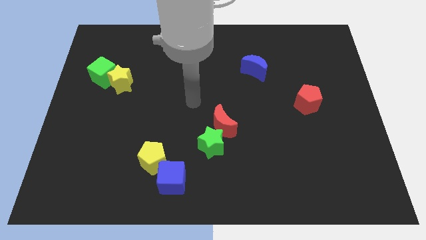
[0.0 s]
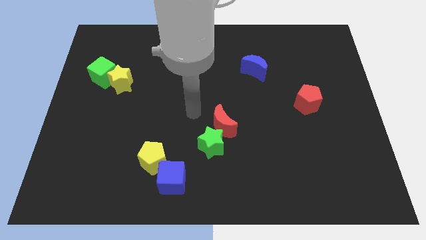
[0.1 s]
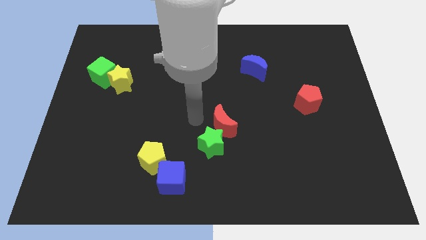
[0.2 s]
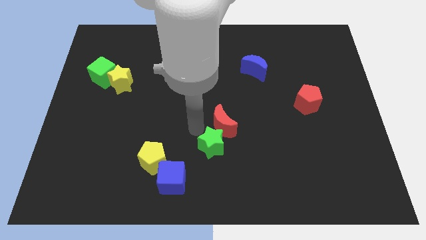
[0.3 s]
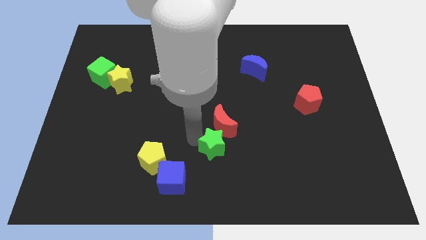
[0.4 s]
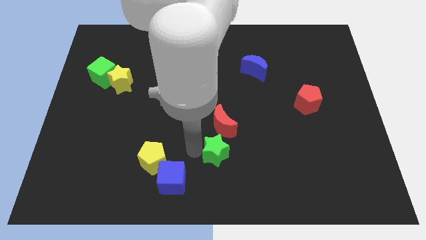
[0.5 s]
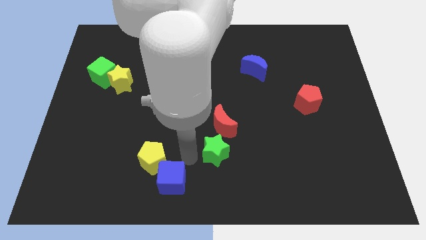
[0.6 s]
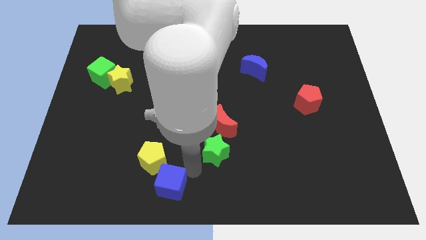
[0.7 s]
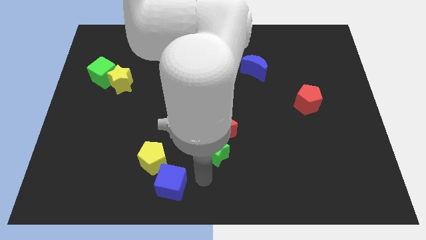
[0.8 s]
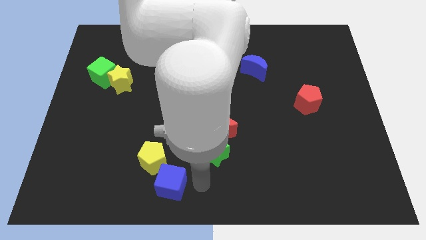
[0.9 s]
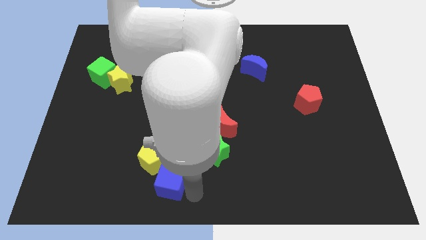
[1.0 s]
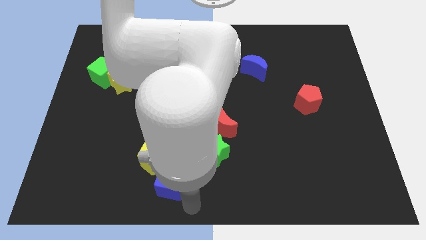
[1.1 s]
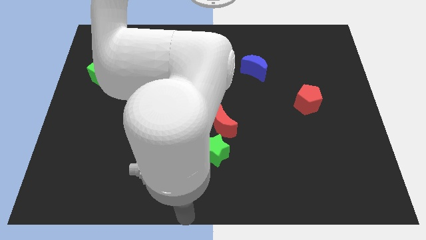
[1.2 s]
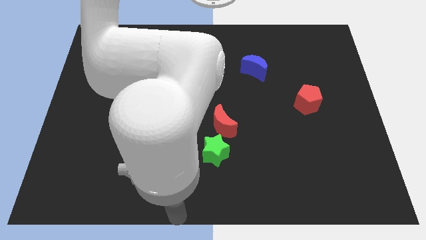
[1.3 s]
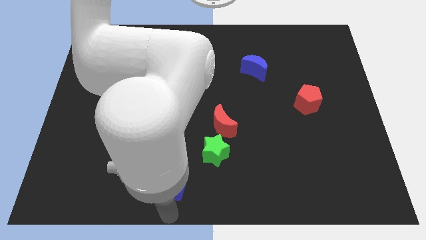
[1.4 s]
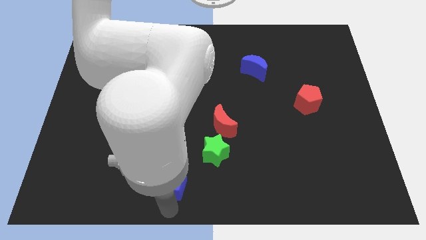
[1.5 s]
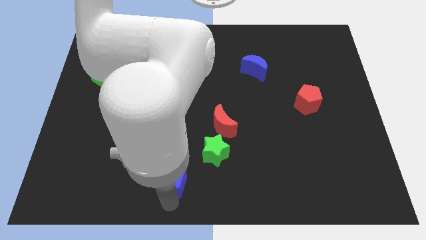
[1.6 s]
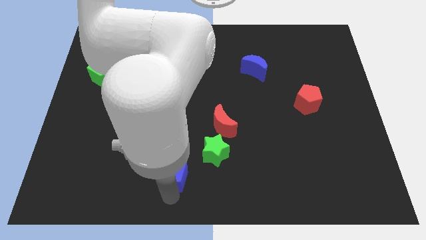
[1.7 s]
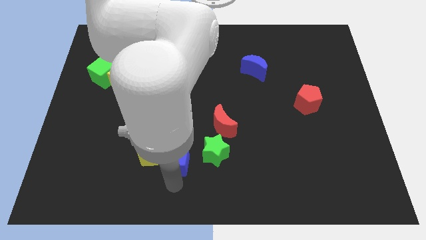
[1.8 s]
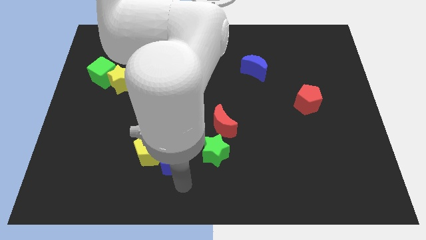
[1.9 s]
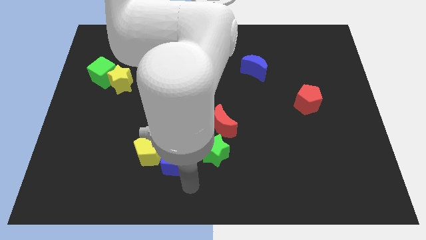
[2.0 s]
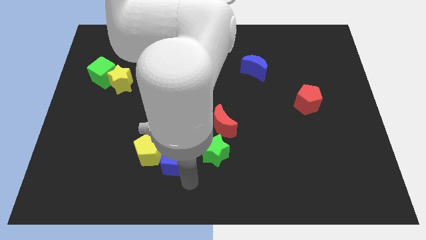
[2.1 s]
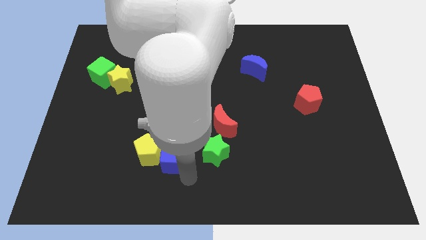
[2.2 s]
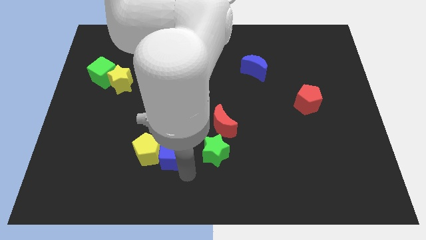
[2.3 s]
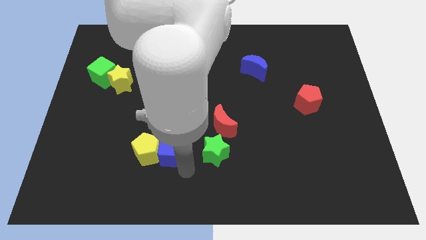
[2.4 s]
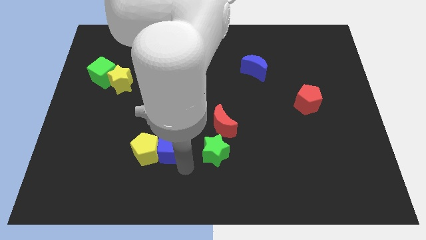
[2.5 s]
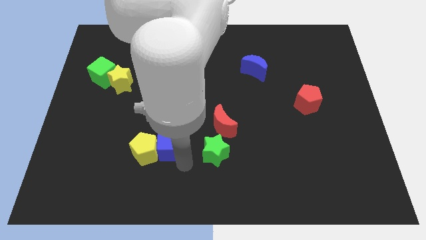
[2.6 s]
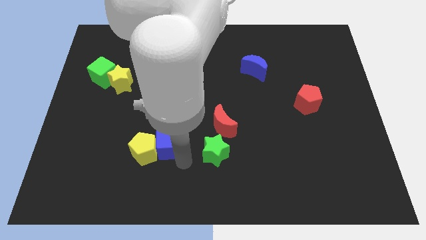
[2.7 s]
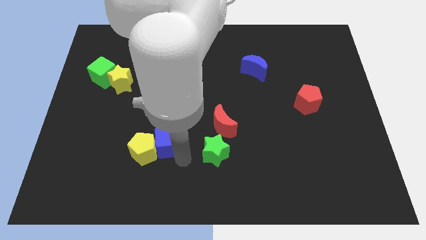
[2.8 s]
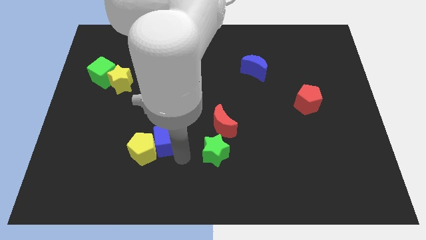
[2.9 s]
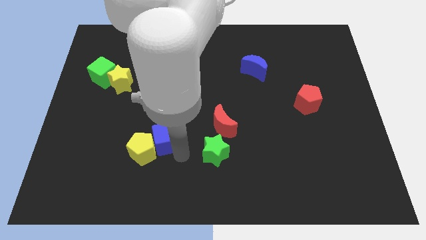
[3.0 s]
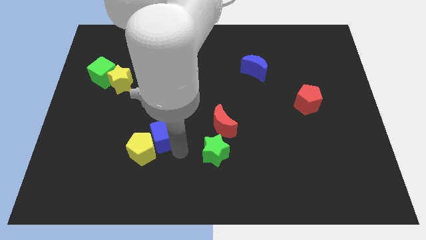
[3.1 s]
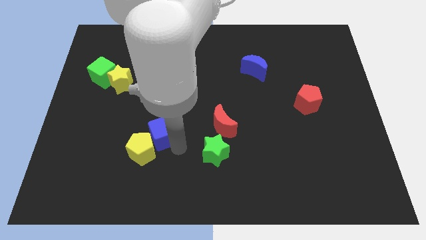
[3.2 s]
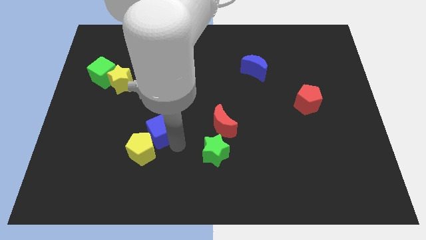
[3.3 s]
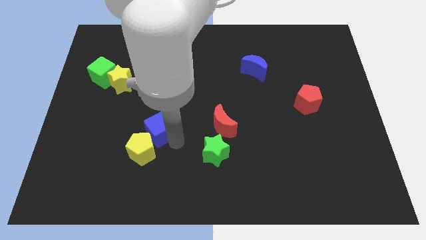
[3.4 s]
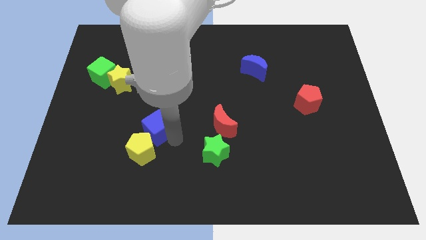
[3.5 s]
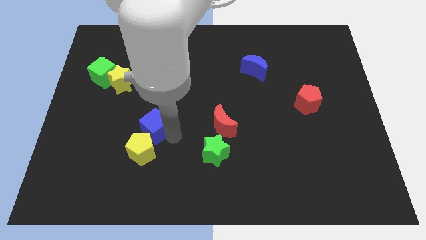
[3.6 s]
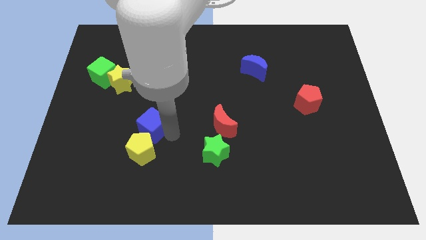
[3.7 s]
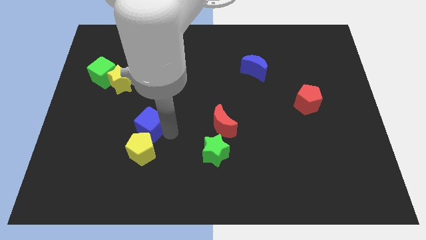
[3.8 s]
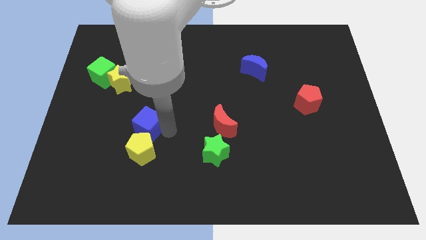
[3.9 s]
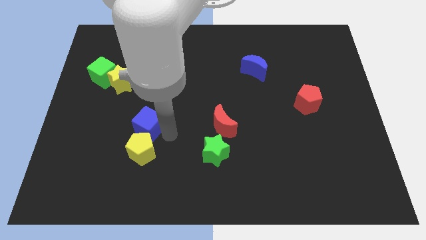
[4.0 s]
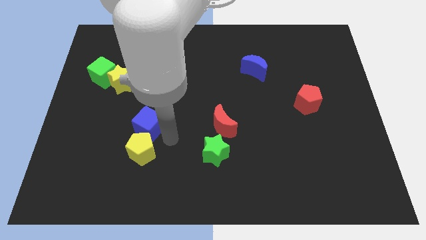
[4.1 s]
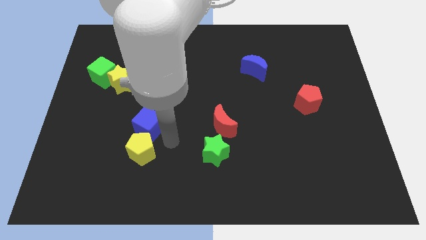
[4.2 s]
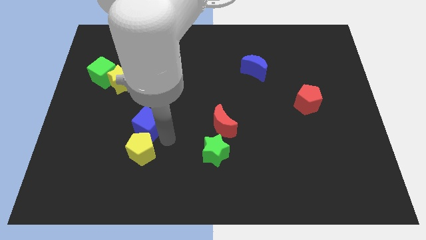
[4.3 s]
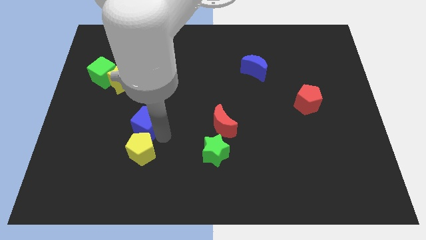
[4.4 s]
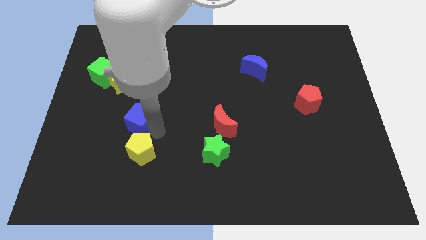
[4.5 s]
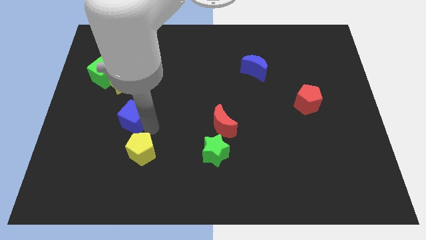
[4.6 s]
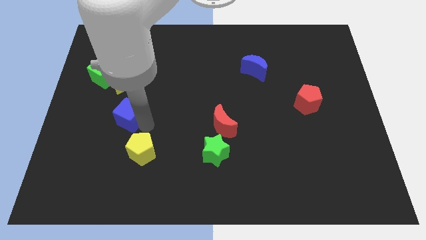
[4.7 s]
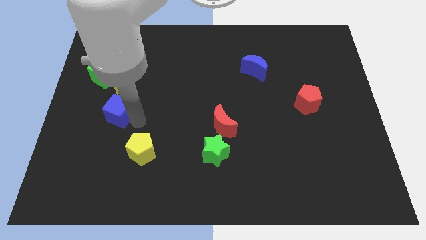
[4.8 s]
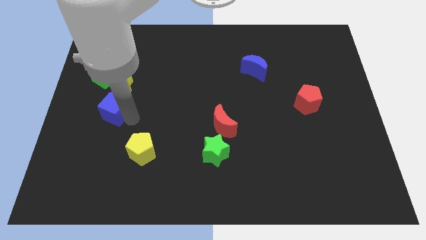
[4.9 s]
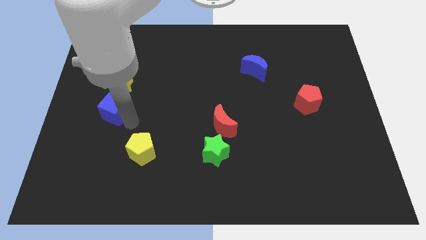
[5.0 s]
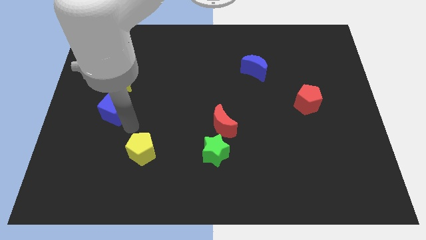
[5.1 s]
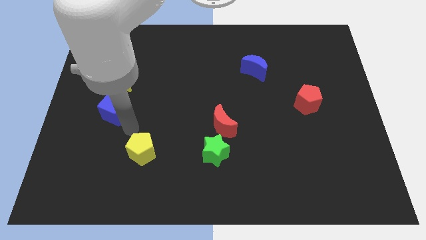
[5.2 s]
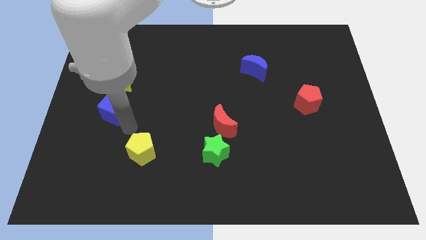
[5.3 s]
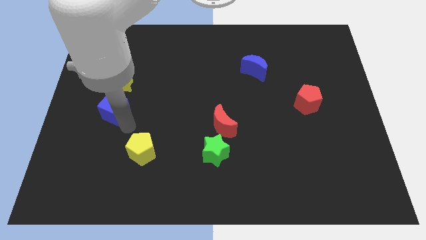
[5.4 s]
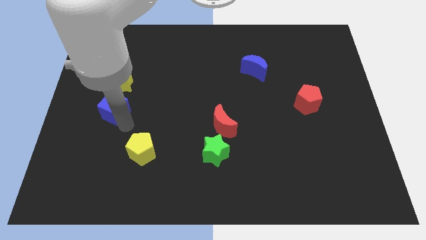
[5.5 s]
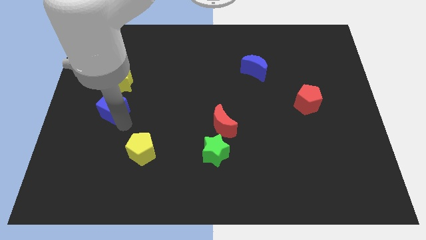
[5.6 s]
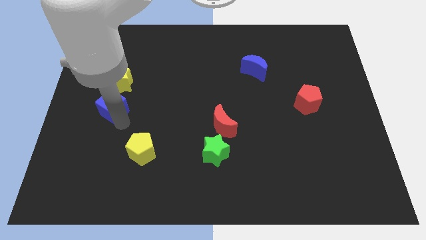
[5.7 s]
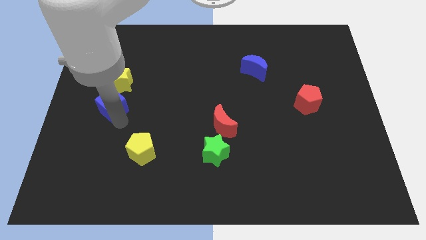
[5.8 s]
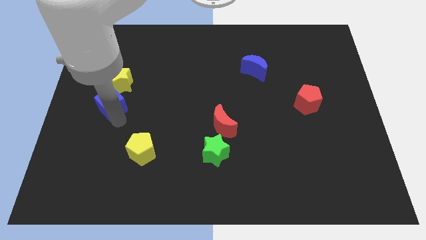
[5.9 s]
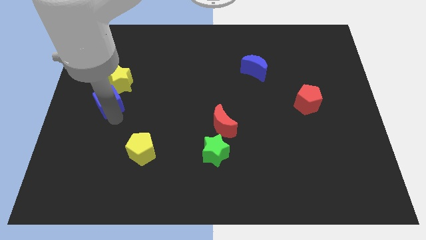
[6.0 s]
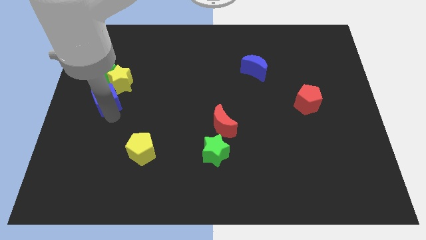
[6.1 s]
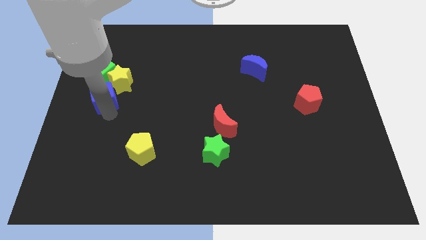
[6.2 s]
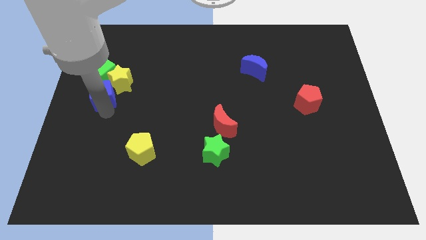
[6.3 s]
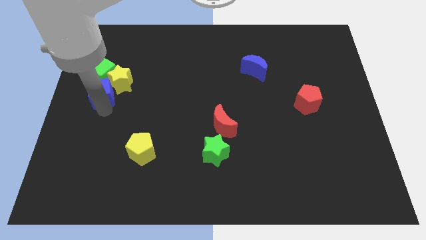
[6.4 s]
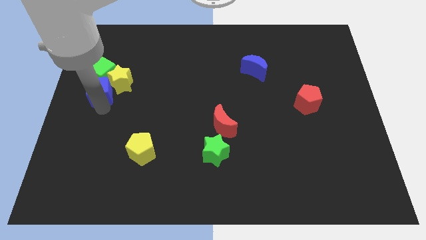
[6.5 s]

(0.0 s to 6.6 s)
push the blue cube to the green cube

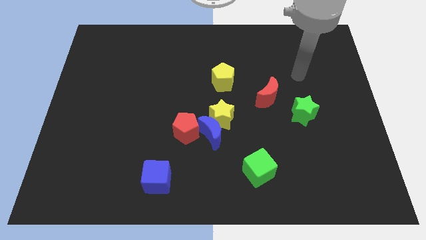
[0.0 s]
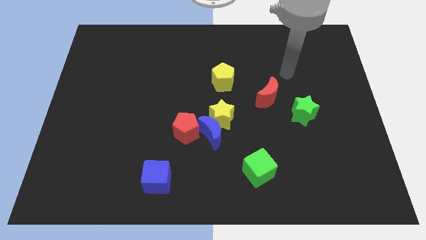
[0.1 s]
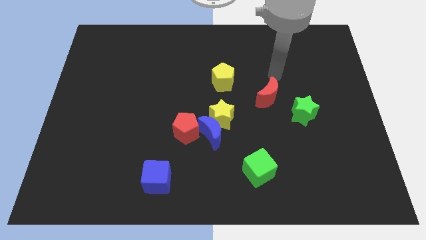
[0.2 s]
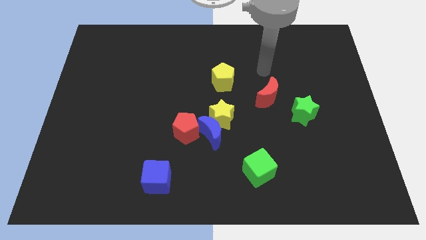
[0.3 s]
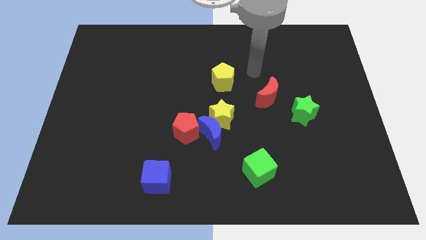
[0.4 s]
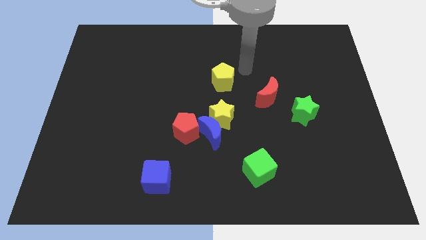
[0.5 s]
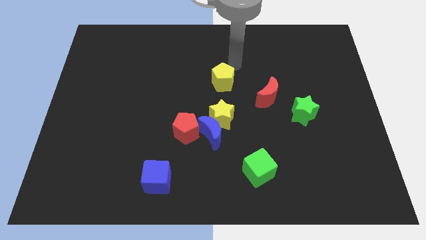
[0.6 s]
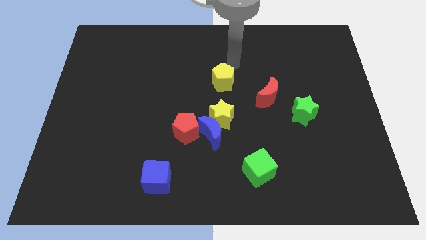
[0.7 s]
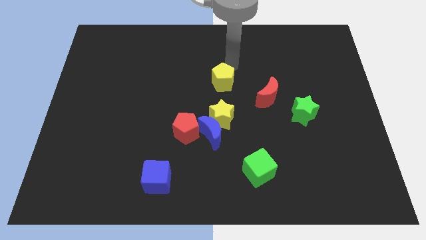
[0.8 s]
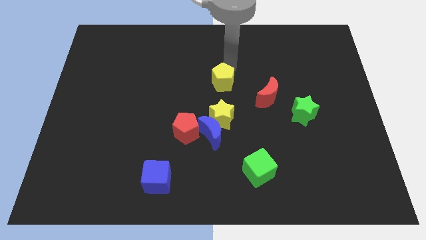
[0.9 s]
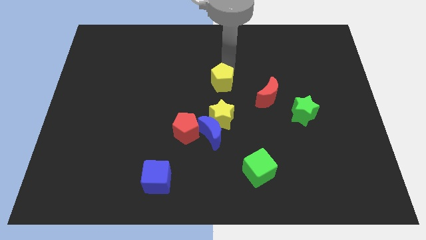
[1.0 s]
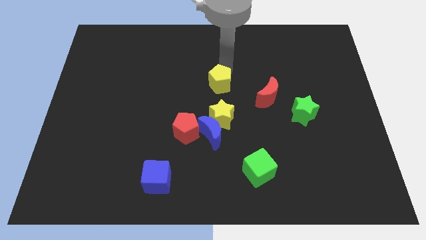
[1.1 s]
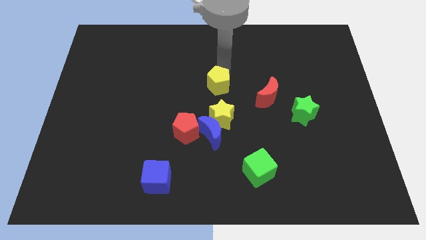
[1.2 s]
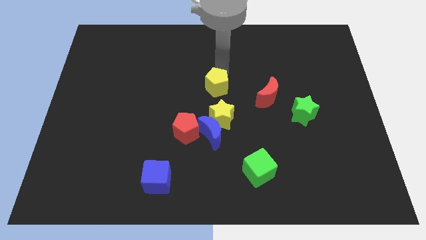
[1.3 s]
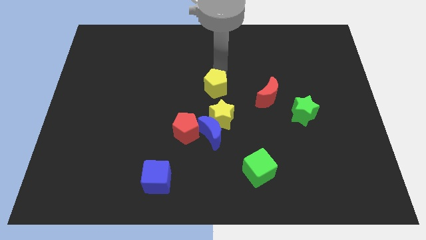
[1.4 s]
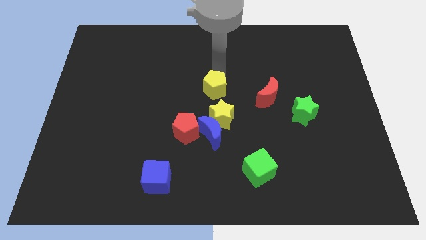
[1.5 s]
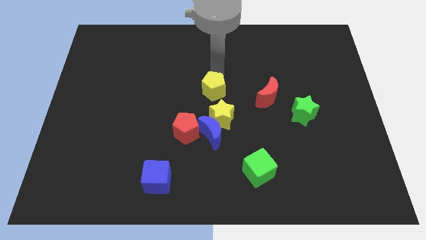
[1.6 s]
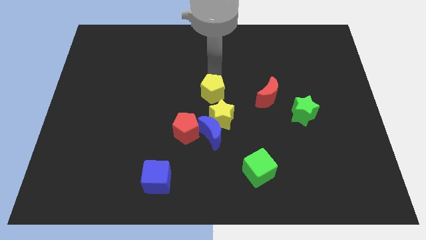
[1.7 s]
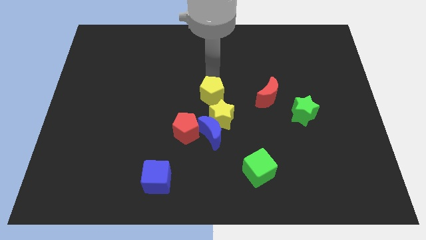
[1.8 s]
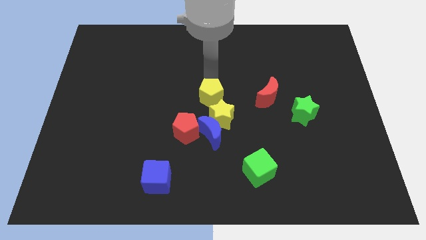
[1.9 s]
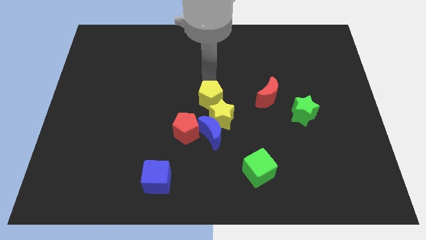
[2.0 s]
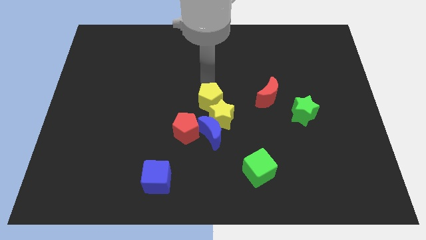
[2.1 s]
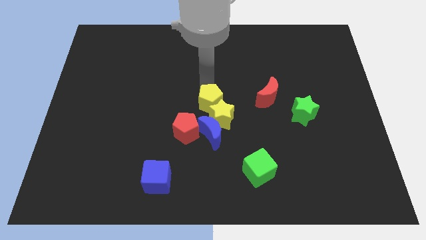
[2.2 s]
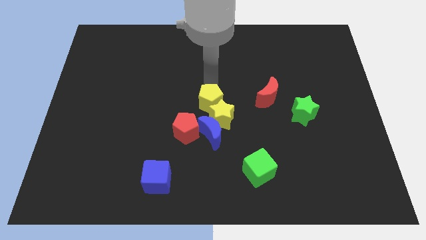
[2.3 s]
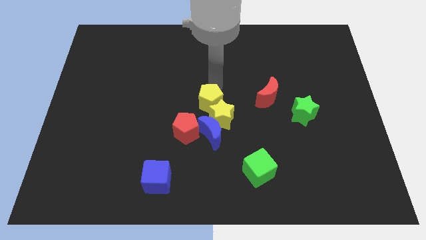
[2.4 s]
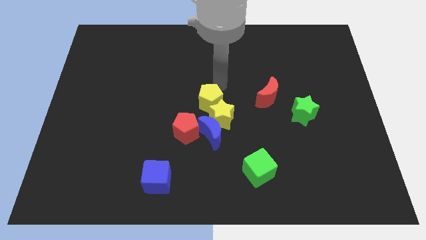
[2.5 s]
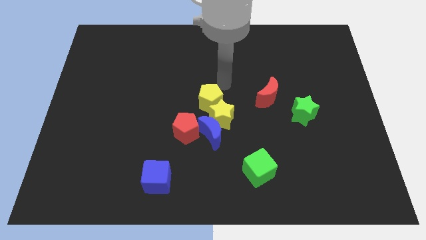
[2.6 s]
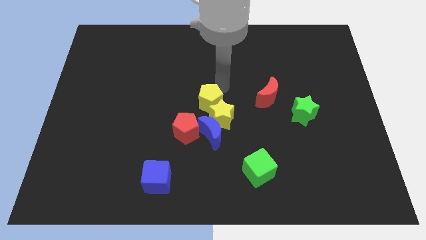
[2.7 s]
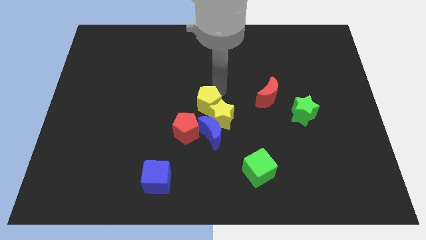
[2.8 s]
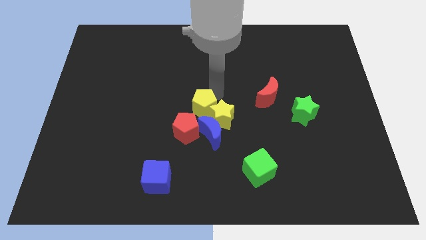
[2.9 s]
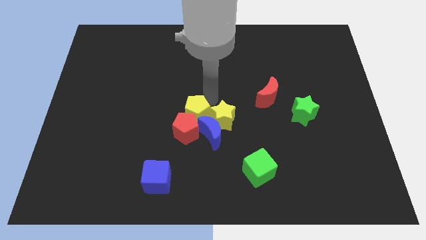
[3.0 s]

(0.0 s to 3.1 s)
move the yellow pentagon to the red pentagon
